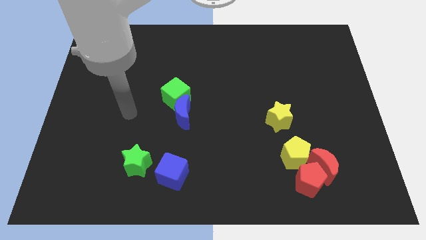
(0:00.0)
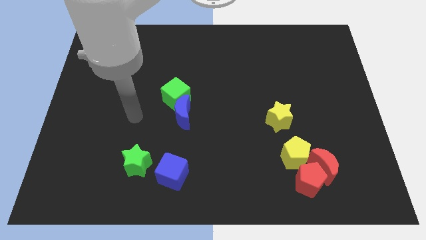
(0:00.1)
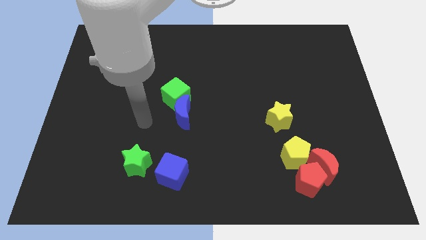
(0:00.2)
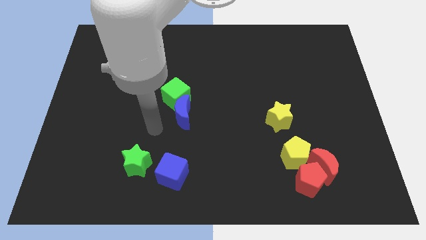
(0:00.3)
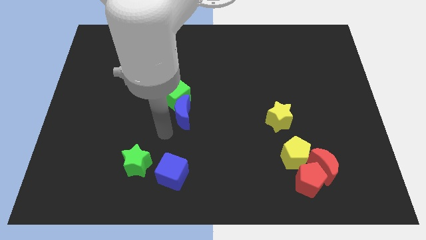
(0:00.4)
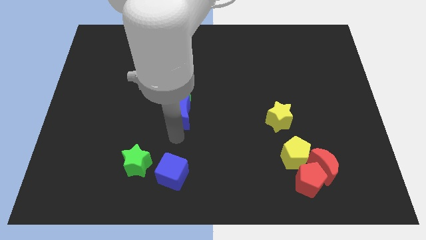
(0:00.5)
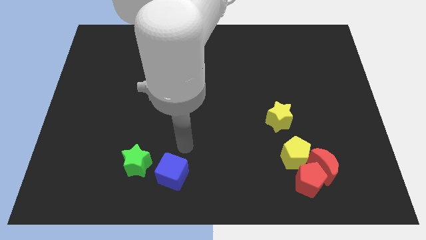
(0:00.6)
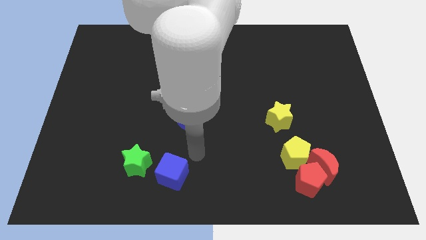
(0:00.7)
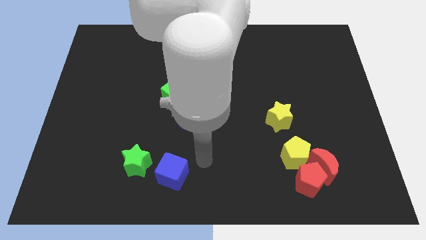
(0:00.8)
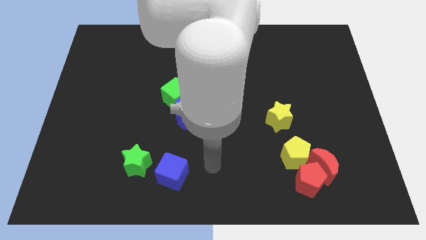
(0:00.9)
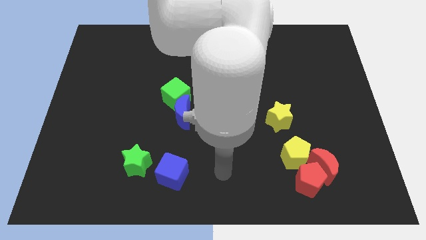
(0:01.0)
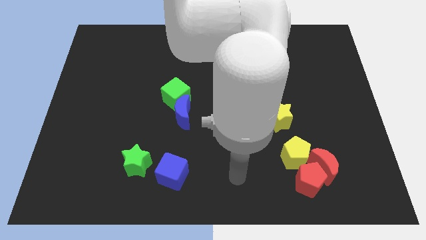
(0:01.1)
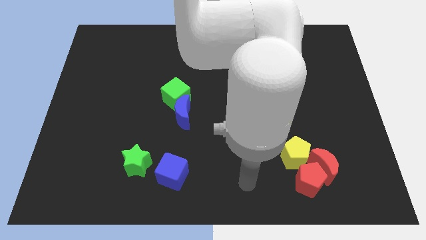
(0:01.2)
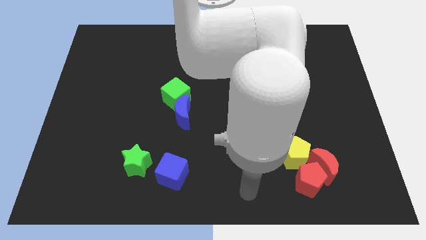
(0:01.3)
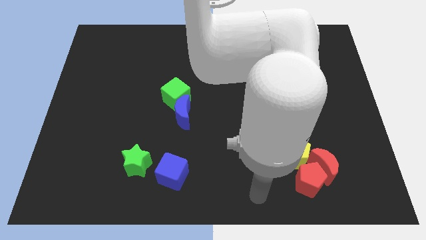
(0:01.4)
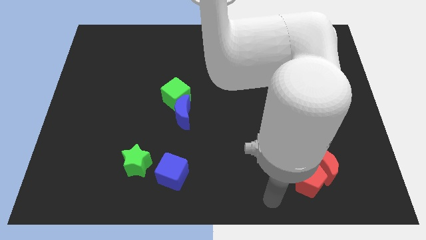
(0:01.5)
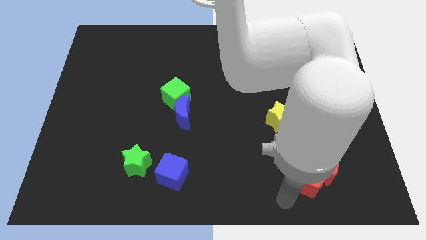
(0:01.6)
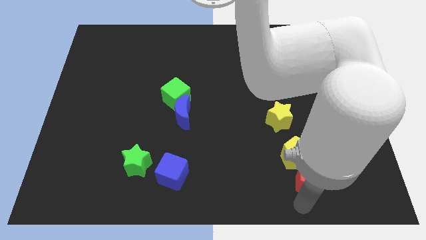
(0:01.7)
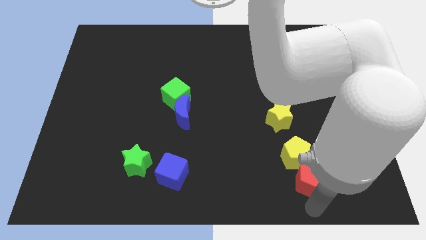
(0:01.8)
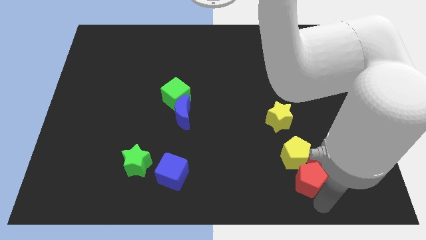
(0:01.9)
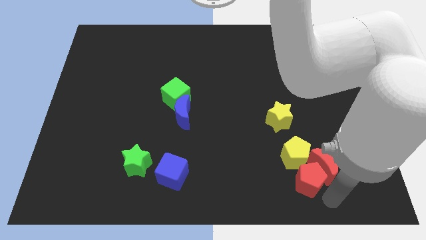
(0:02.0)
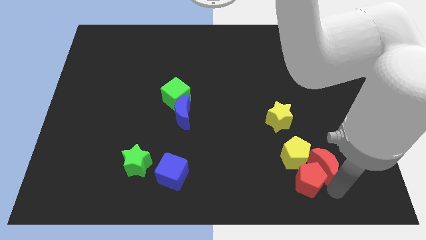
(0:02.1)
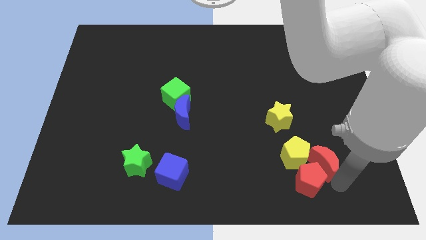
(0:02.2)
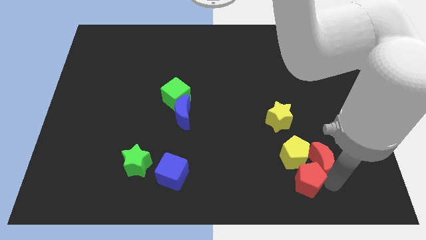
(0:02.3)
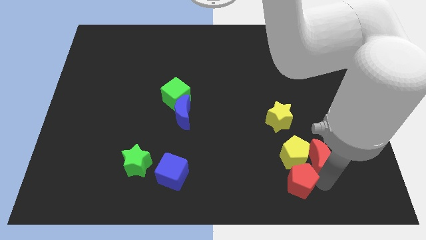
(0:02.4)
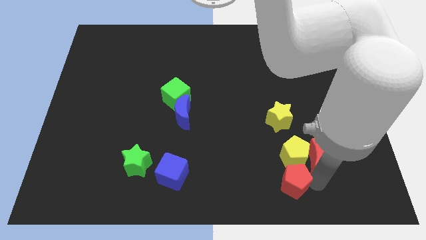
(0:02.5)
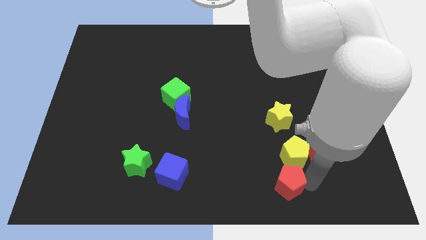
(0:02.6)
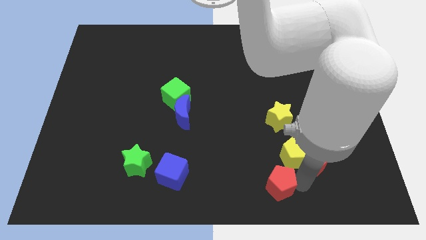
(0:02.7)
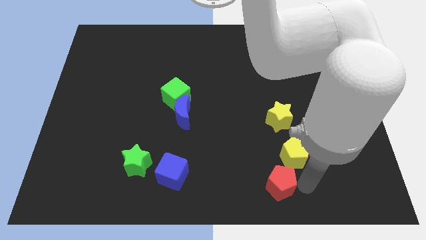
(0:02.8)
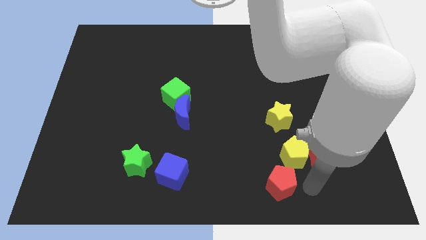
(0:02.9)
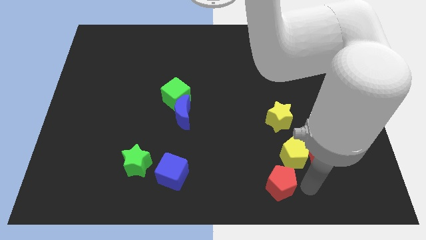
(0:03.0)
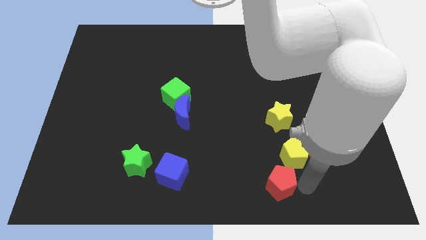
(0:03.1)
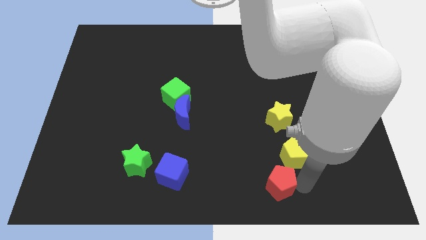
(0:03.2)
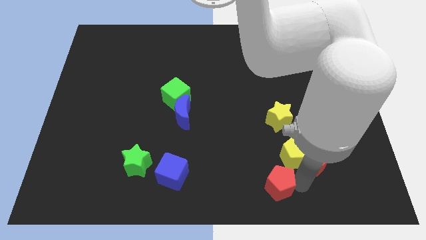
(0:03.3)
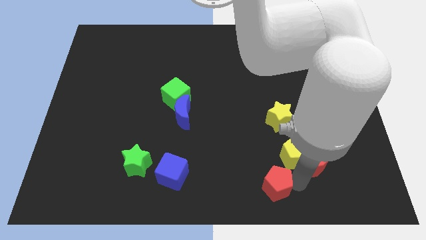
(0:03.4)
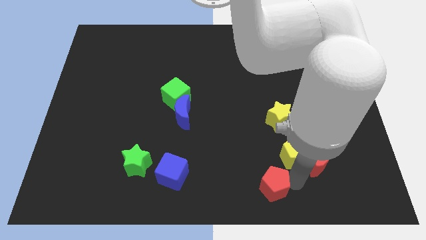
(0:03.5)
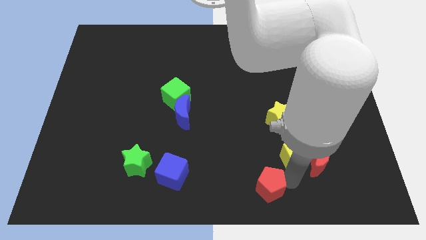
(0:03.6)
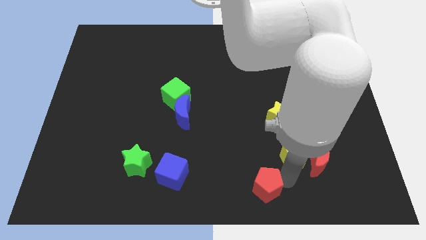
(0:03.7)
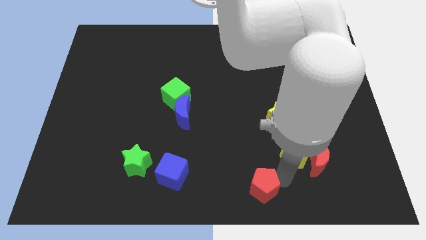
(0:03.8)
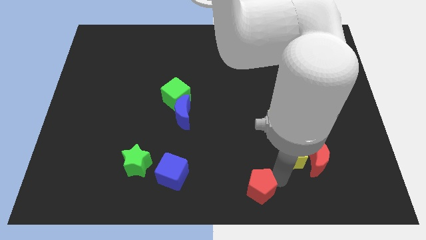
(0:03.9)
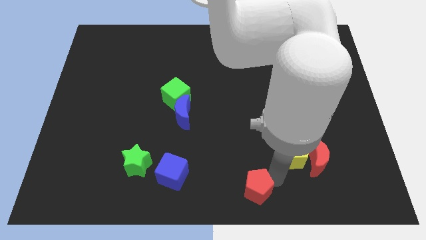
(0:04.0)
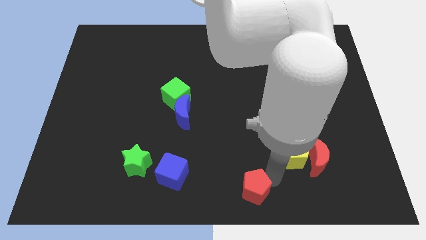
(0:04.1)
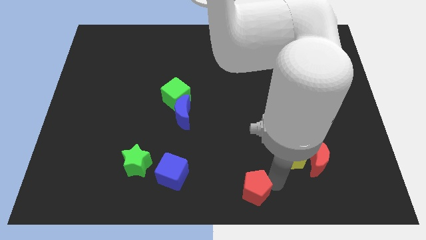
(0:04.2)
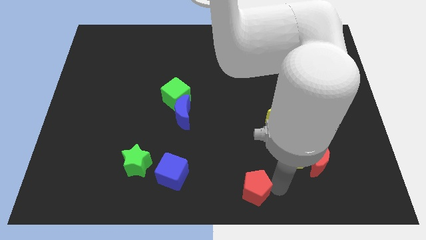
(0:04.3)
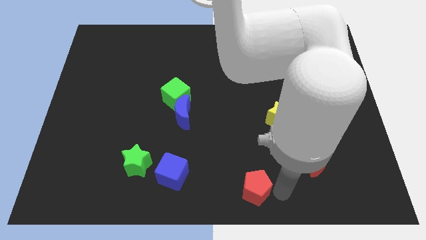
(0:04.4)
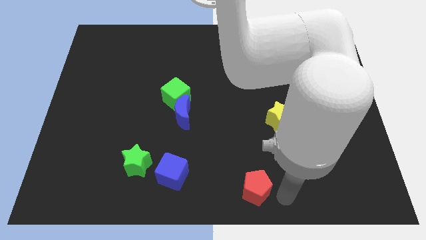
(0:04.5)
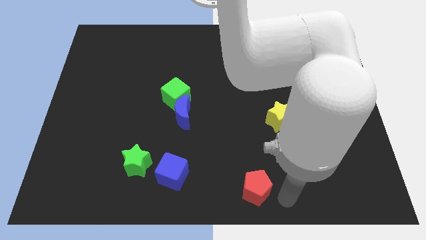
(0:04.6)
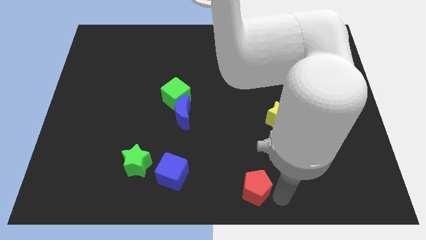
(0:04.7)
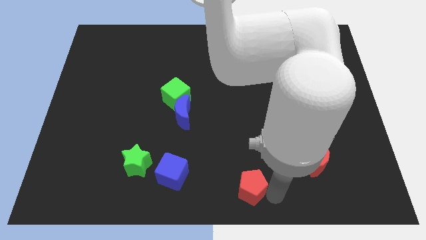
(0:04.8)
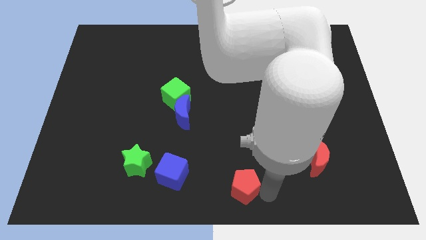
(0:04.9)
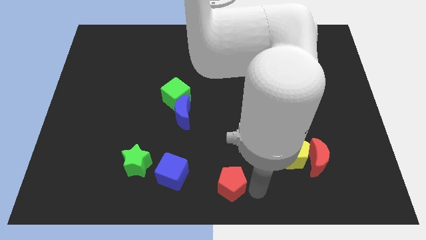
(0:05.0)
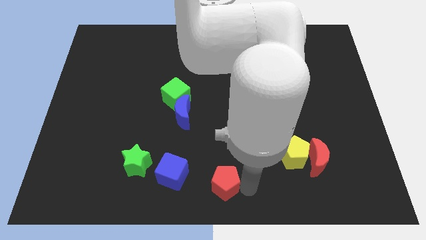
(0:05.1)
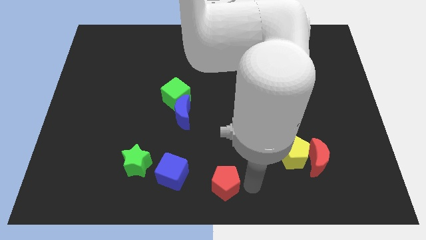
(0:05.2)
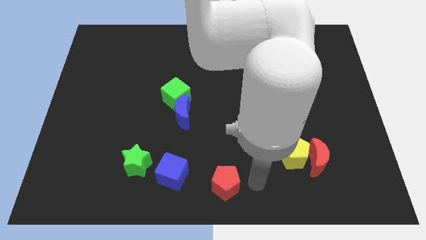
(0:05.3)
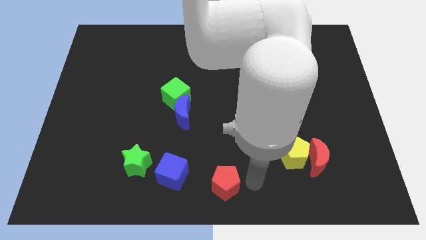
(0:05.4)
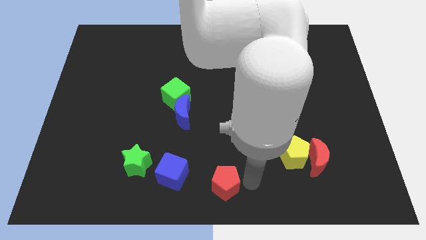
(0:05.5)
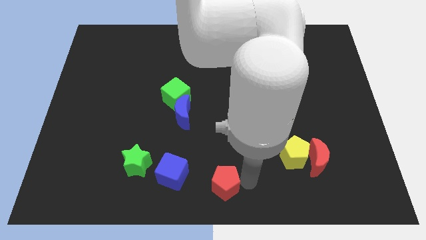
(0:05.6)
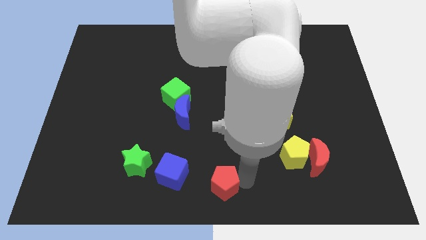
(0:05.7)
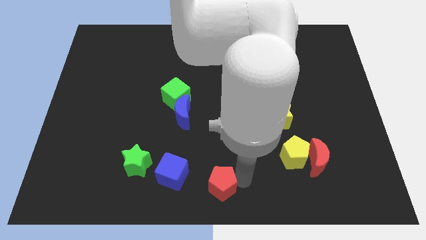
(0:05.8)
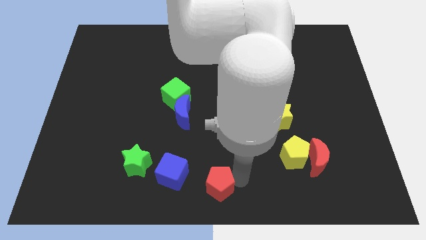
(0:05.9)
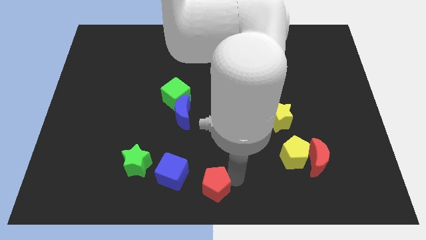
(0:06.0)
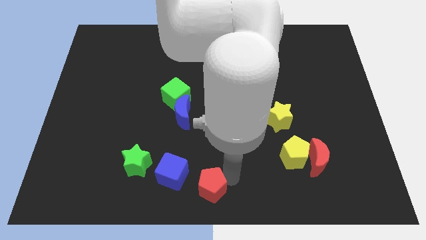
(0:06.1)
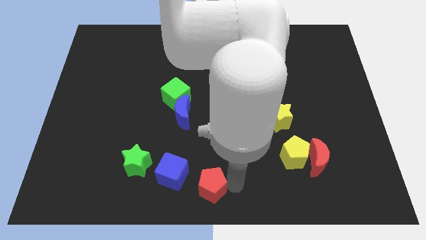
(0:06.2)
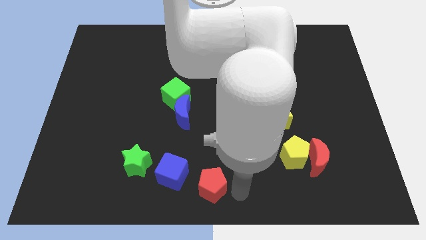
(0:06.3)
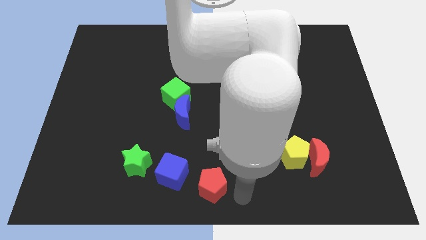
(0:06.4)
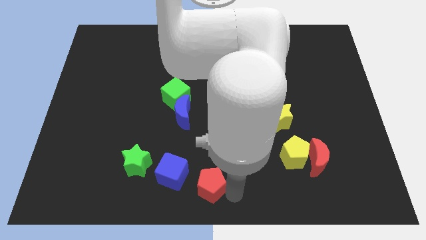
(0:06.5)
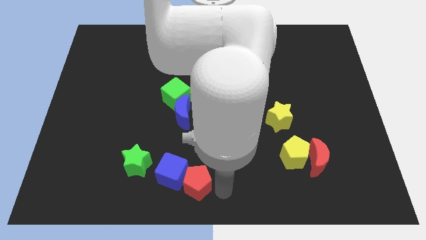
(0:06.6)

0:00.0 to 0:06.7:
slide the red pentagon close to the blue cube

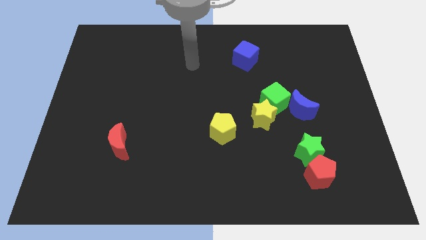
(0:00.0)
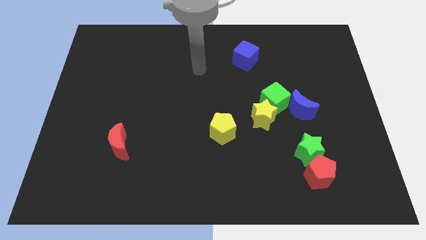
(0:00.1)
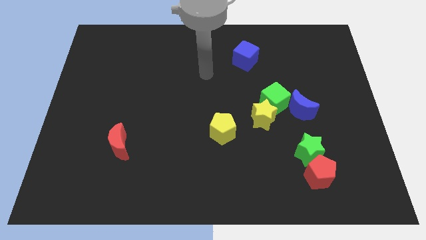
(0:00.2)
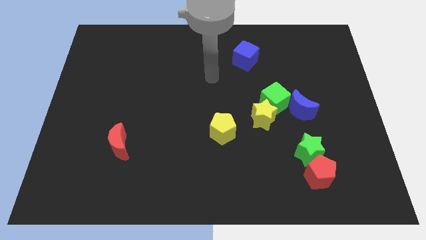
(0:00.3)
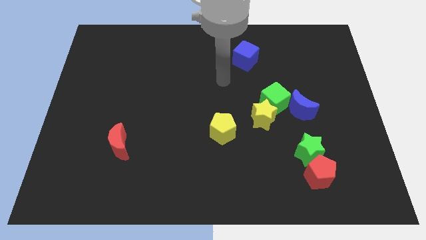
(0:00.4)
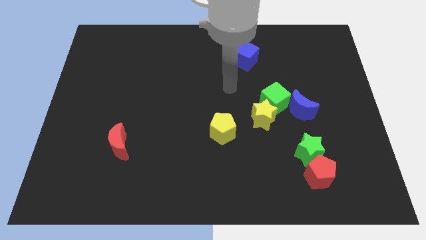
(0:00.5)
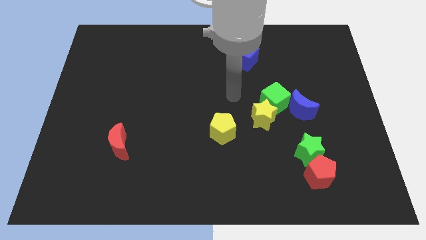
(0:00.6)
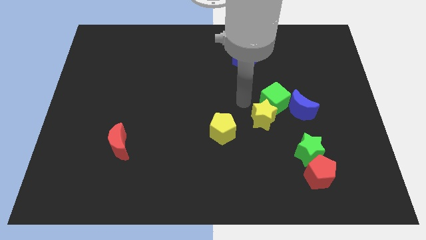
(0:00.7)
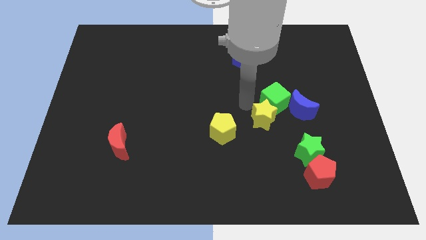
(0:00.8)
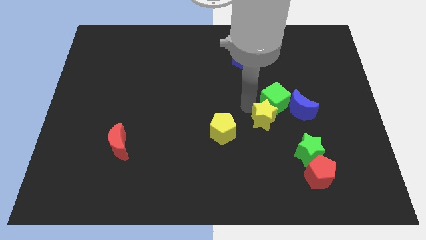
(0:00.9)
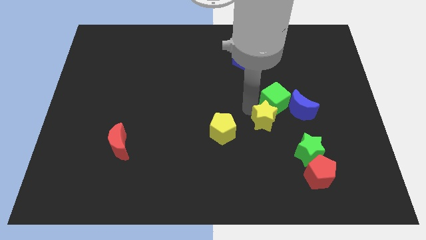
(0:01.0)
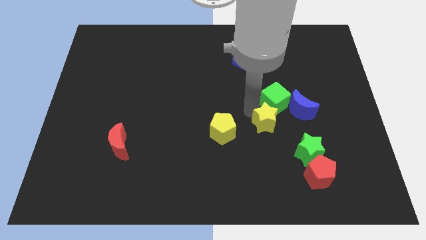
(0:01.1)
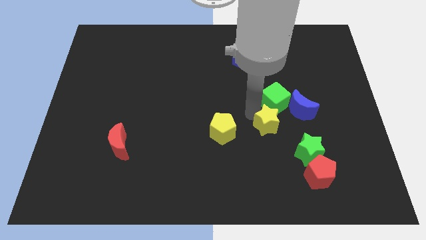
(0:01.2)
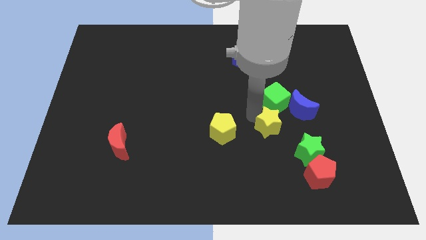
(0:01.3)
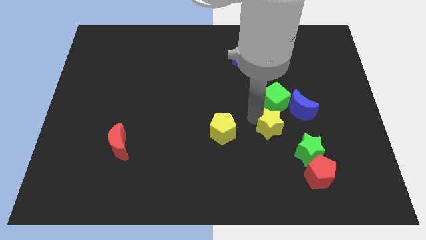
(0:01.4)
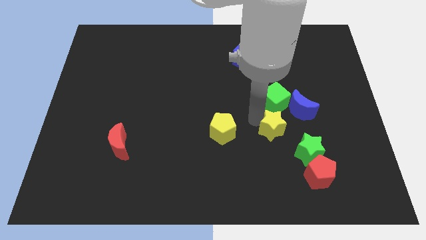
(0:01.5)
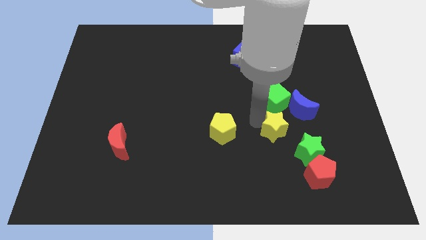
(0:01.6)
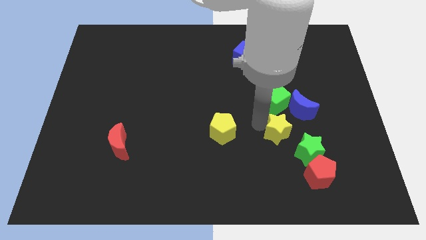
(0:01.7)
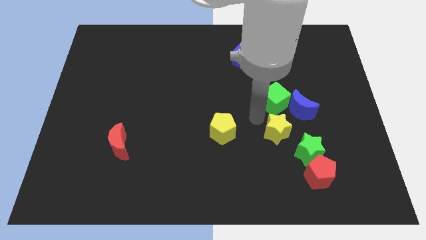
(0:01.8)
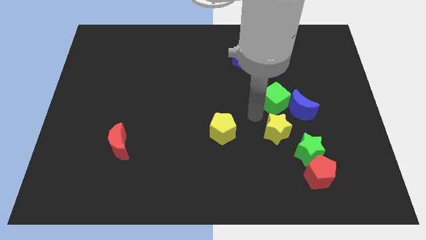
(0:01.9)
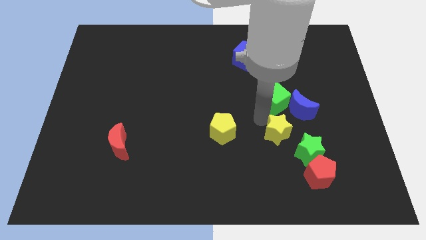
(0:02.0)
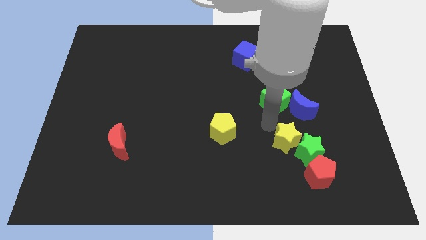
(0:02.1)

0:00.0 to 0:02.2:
slide the yellow star next to the green star
